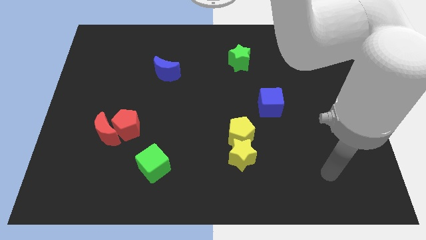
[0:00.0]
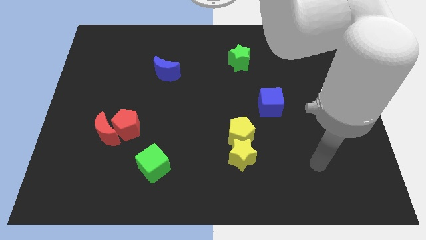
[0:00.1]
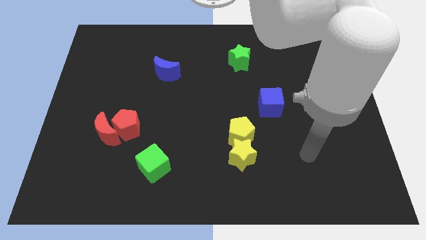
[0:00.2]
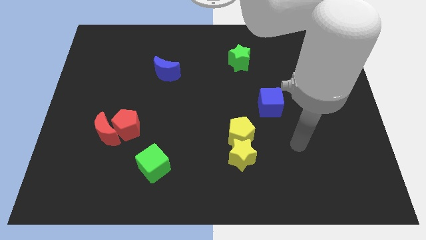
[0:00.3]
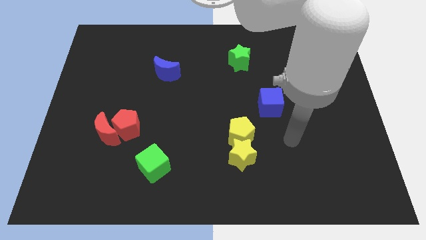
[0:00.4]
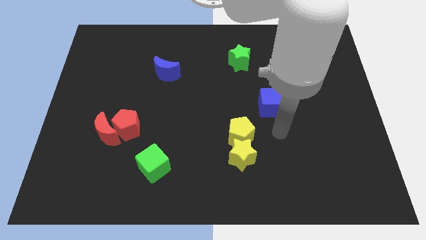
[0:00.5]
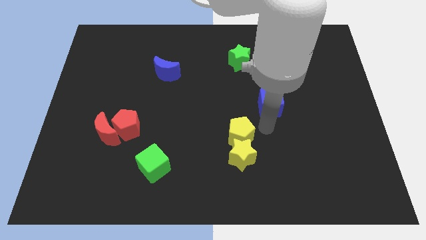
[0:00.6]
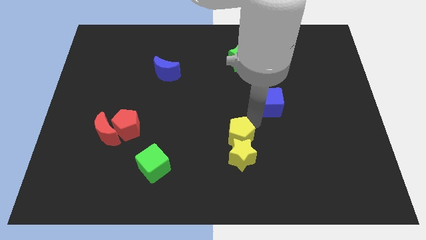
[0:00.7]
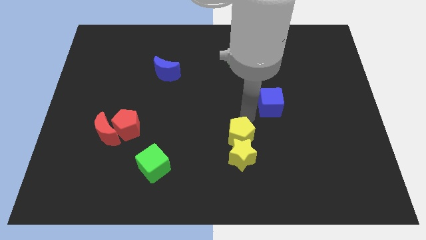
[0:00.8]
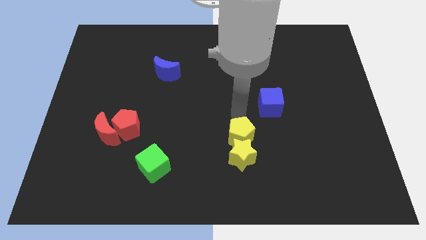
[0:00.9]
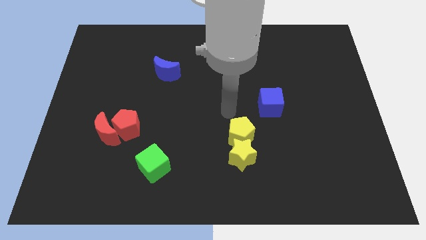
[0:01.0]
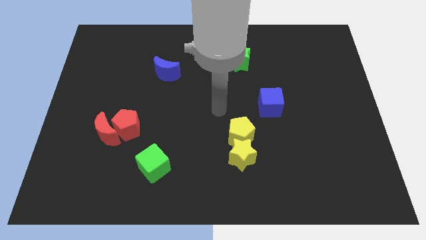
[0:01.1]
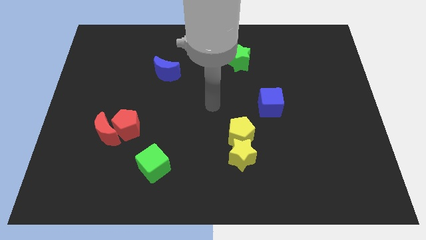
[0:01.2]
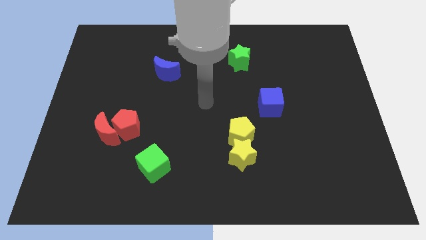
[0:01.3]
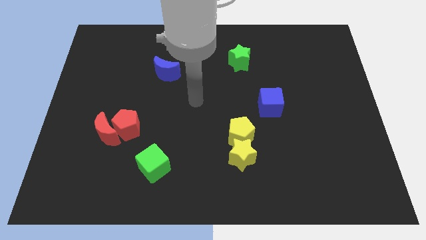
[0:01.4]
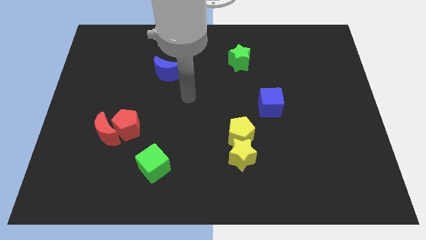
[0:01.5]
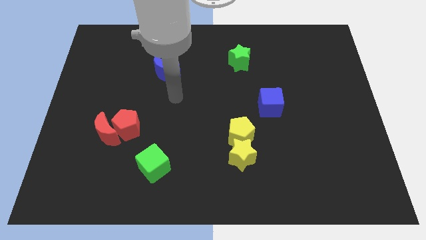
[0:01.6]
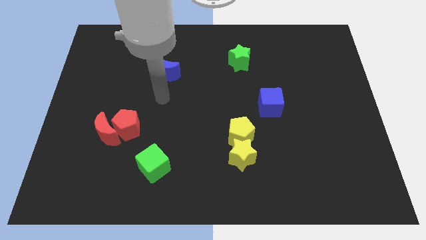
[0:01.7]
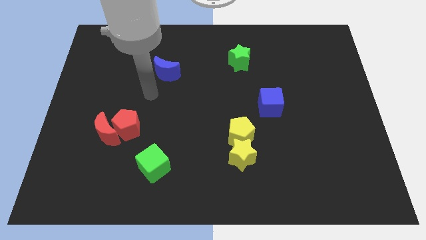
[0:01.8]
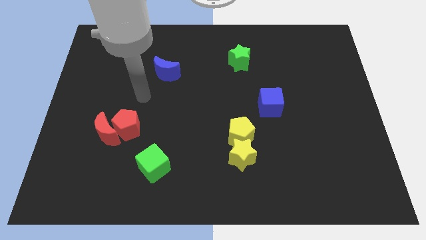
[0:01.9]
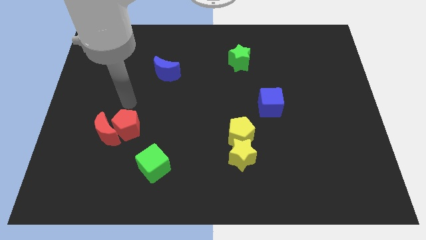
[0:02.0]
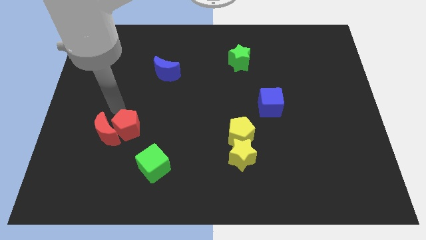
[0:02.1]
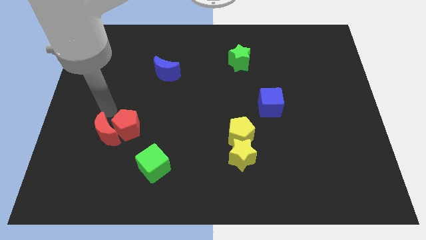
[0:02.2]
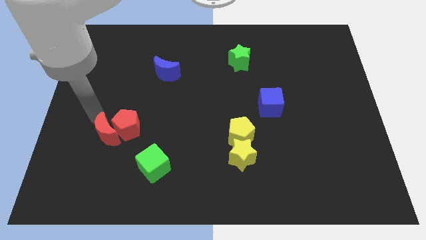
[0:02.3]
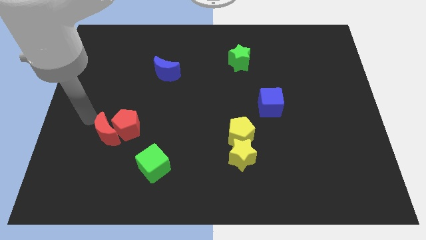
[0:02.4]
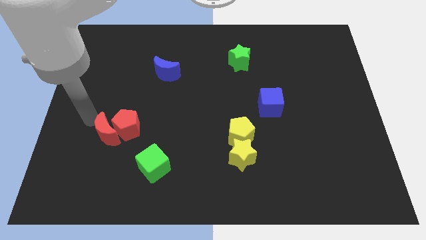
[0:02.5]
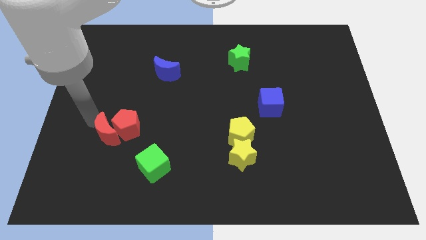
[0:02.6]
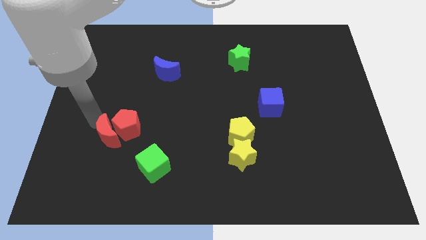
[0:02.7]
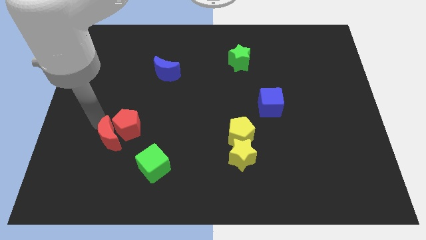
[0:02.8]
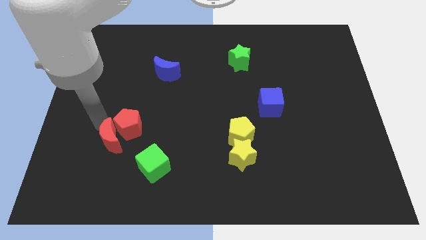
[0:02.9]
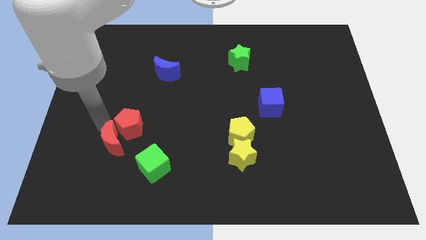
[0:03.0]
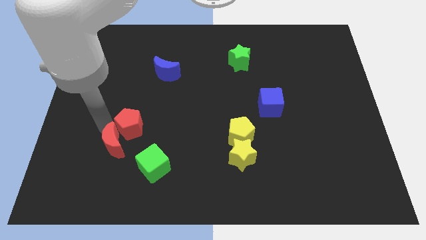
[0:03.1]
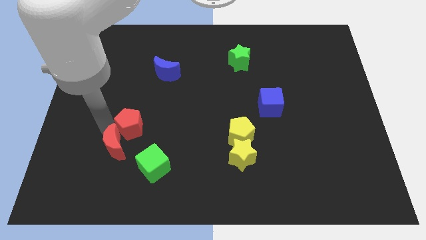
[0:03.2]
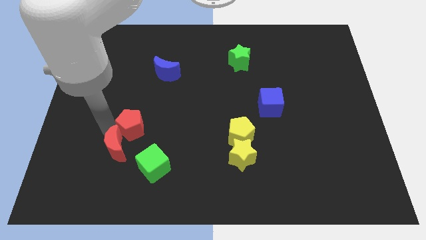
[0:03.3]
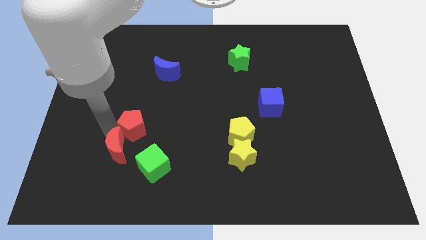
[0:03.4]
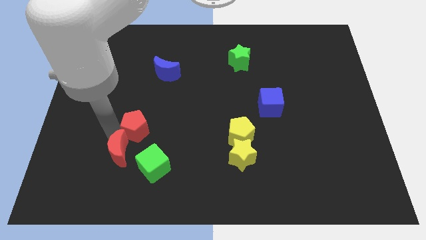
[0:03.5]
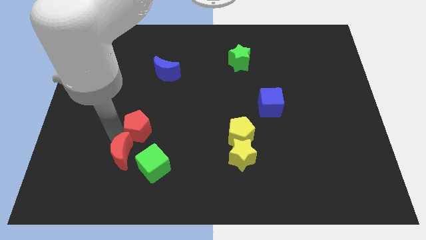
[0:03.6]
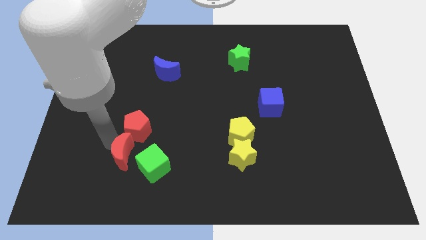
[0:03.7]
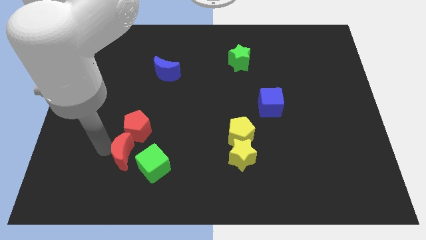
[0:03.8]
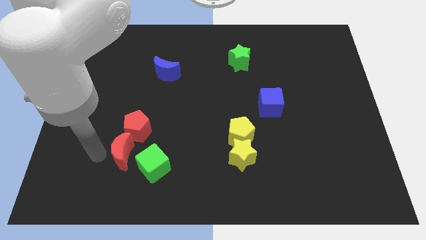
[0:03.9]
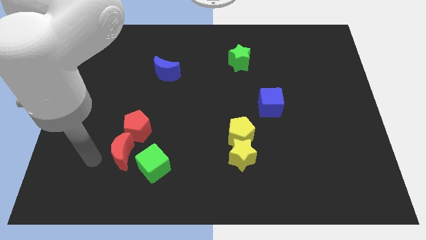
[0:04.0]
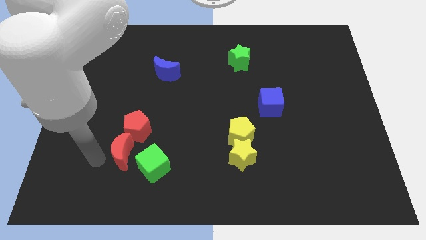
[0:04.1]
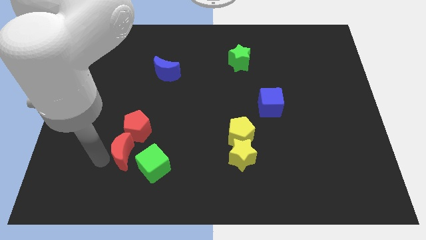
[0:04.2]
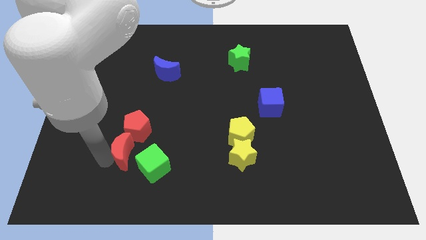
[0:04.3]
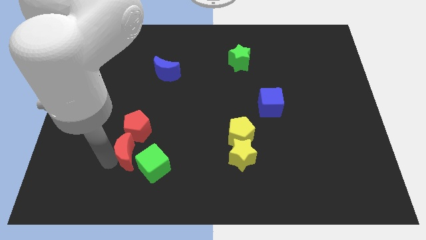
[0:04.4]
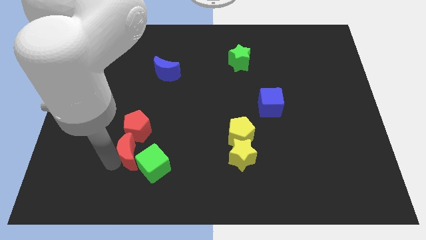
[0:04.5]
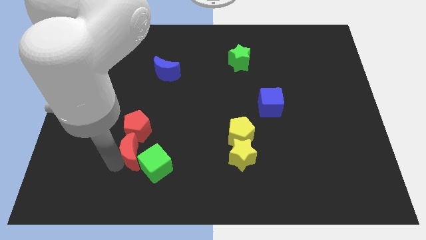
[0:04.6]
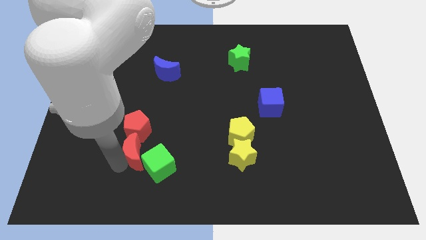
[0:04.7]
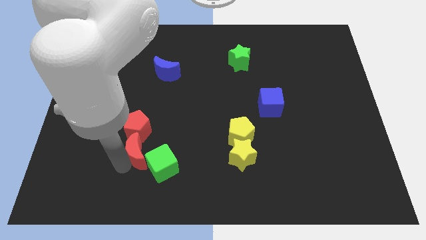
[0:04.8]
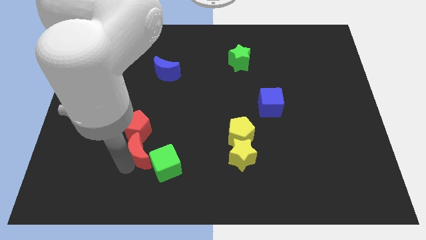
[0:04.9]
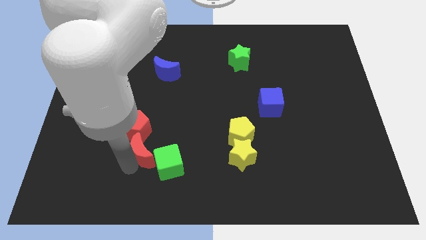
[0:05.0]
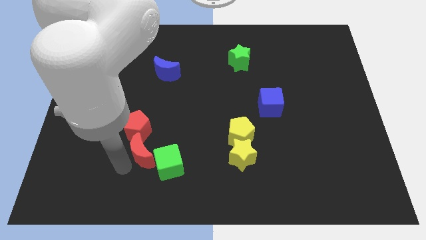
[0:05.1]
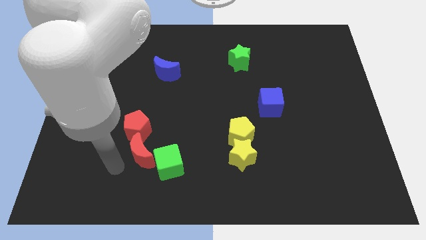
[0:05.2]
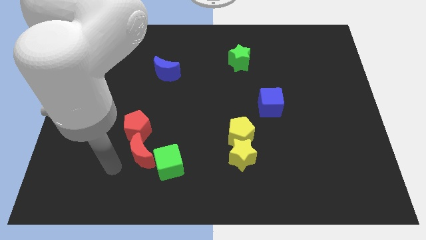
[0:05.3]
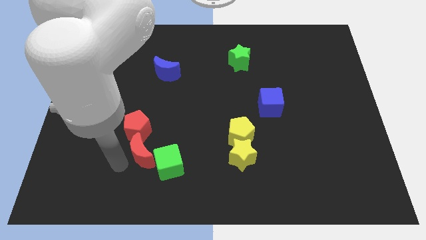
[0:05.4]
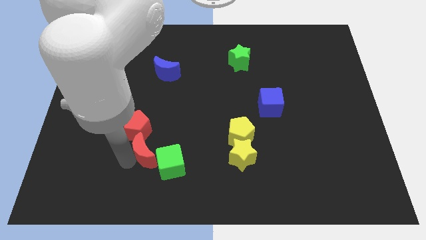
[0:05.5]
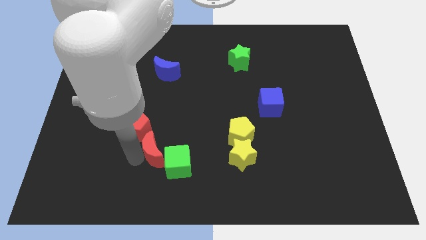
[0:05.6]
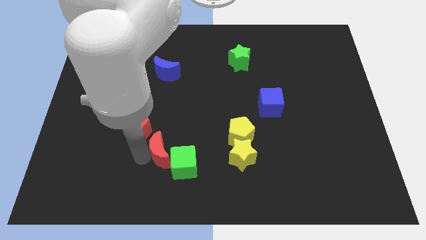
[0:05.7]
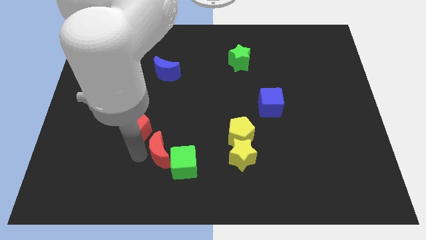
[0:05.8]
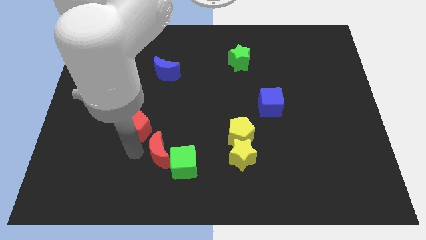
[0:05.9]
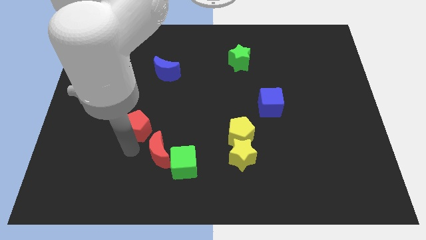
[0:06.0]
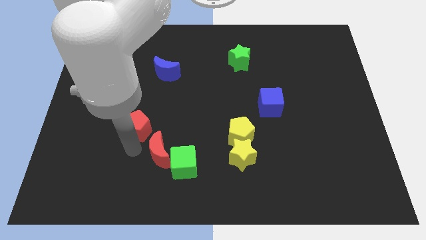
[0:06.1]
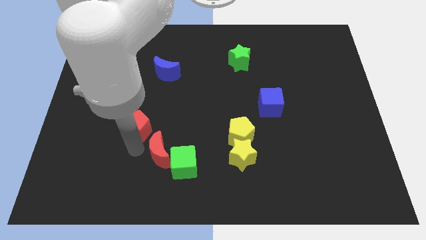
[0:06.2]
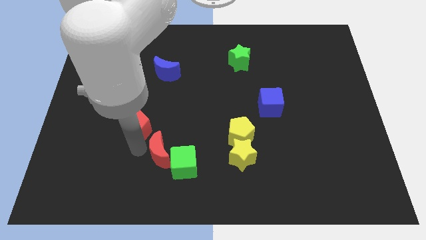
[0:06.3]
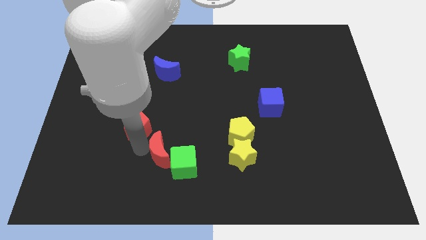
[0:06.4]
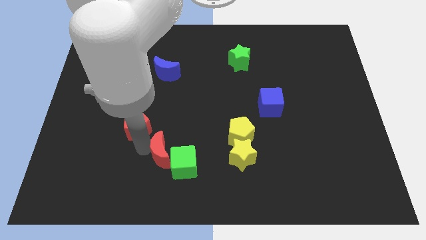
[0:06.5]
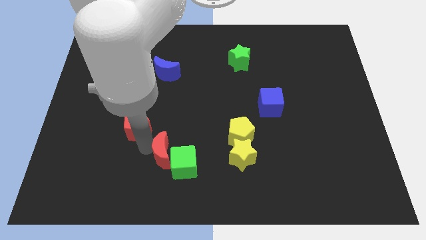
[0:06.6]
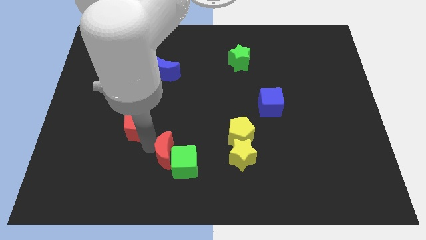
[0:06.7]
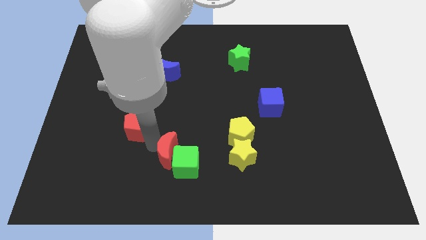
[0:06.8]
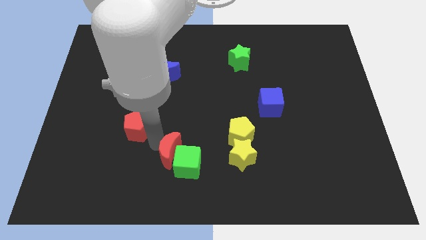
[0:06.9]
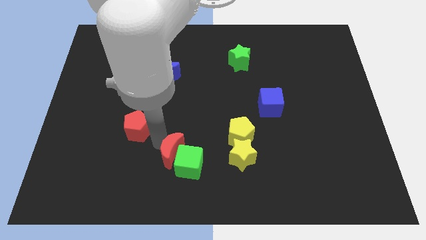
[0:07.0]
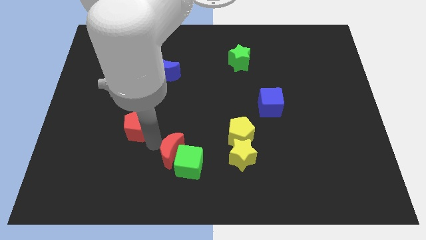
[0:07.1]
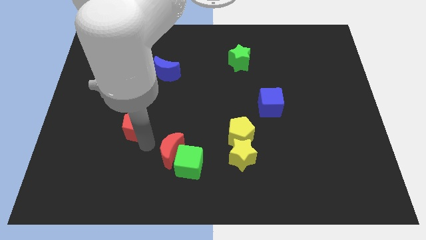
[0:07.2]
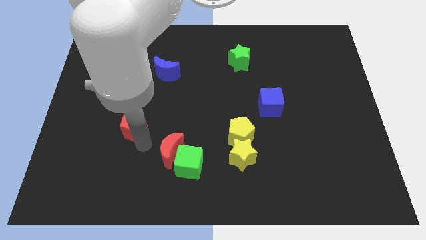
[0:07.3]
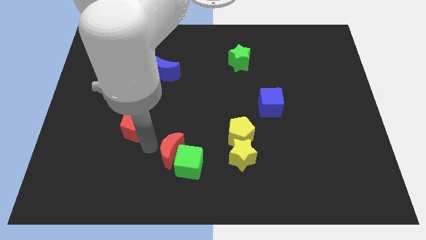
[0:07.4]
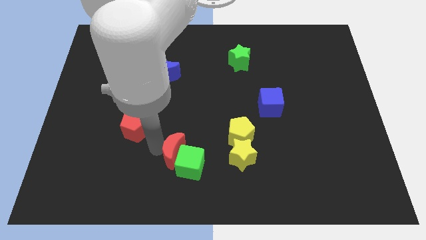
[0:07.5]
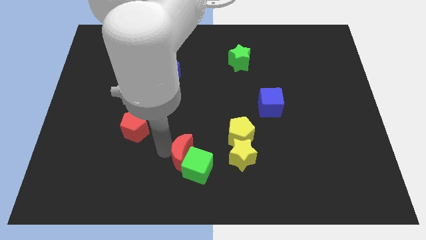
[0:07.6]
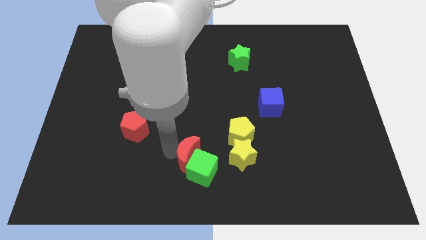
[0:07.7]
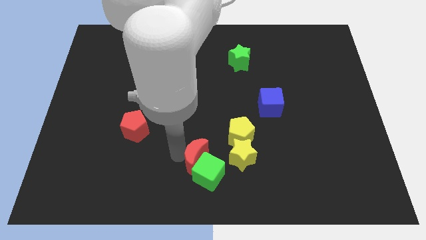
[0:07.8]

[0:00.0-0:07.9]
put the red moon to the bottom left of the yellow pentagon
